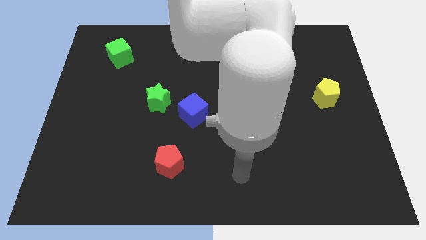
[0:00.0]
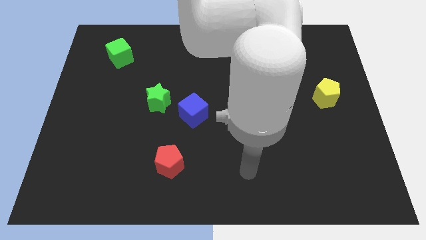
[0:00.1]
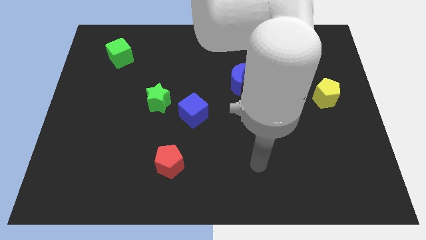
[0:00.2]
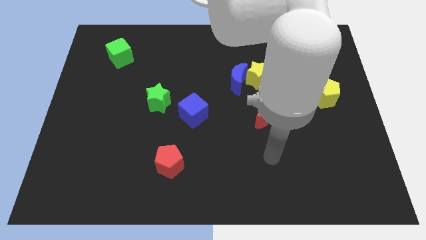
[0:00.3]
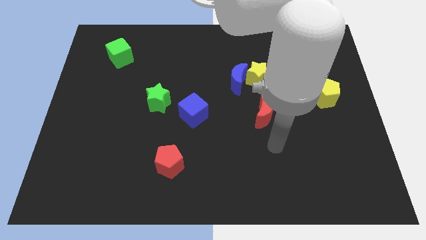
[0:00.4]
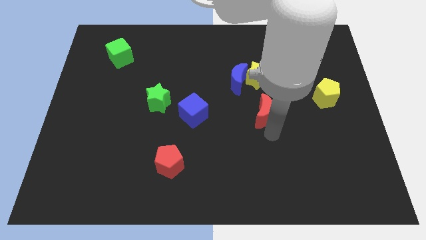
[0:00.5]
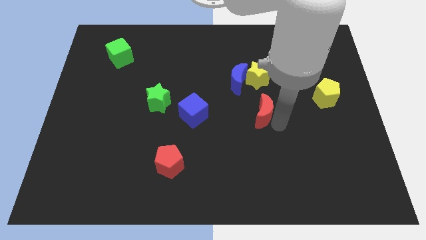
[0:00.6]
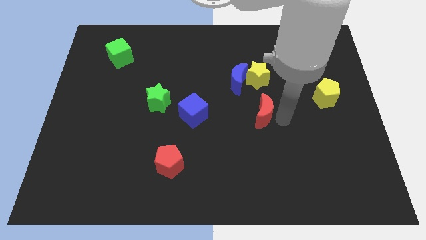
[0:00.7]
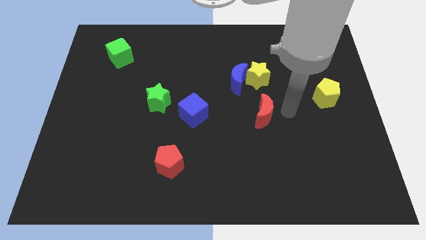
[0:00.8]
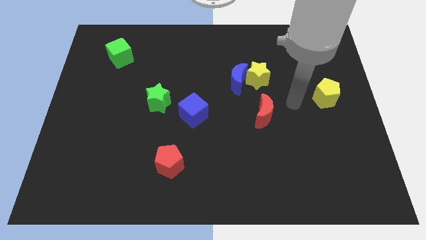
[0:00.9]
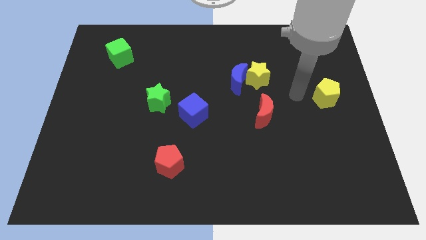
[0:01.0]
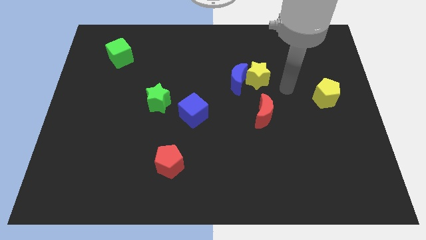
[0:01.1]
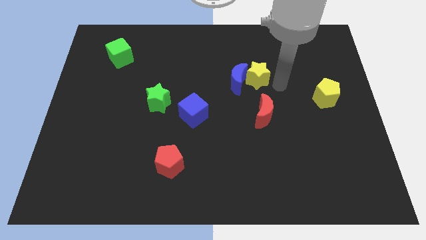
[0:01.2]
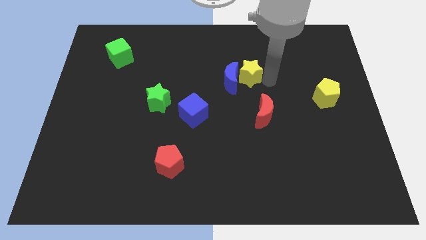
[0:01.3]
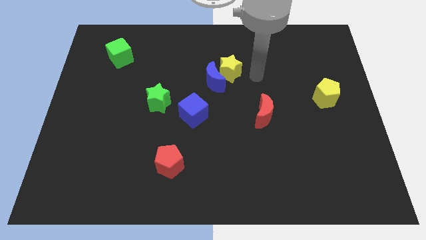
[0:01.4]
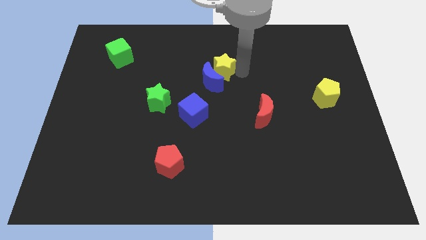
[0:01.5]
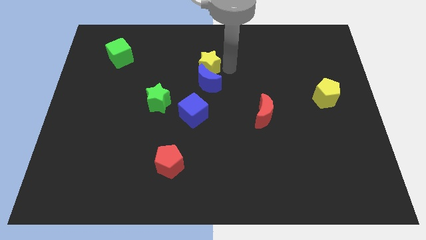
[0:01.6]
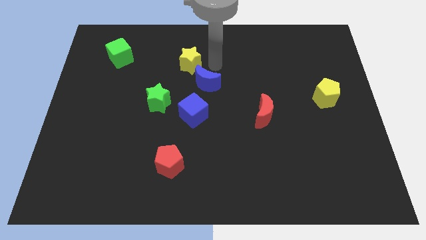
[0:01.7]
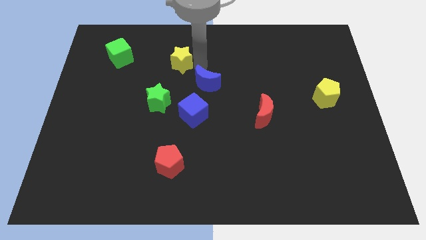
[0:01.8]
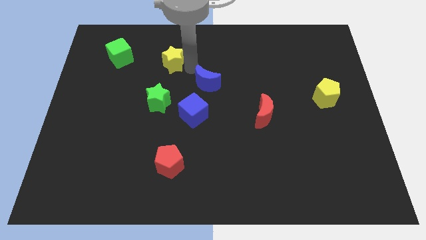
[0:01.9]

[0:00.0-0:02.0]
separate the blue moon from the yellow star

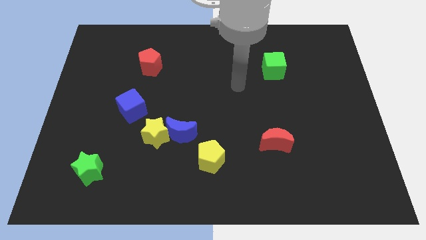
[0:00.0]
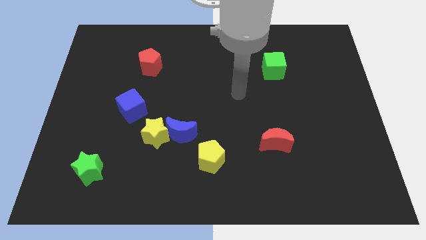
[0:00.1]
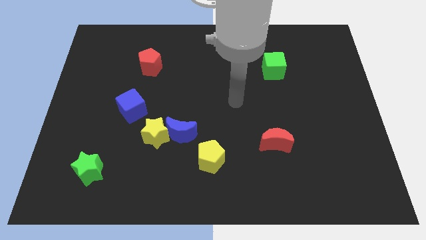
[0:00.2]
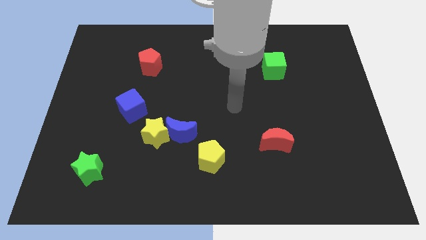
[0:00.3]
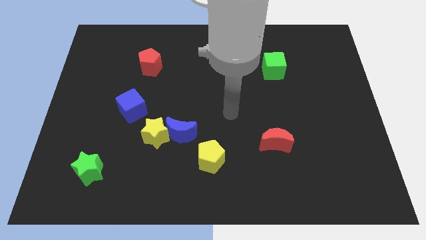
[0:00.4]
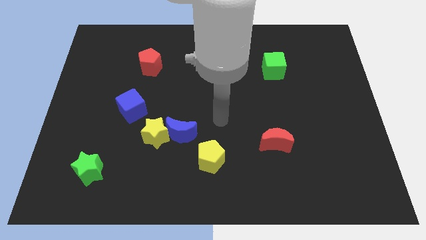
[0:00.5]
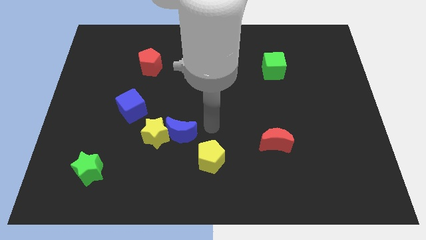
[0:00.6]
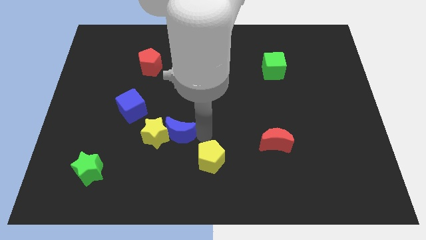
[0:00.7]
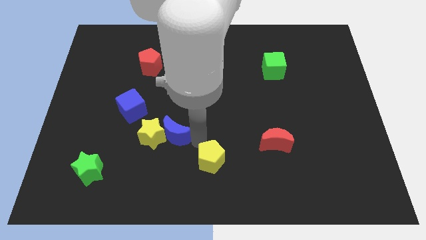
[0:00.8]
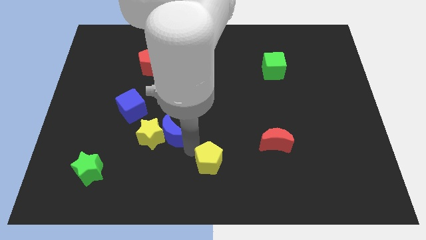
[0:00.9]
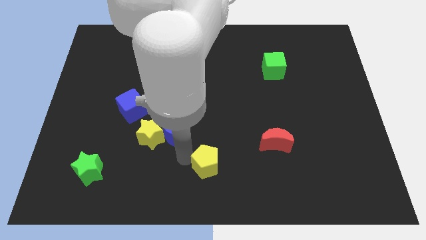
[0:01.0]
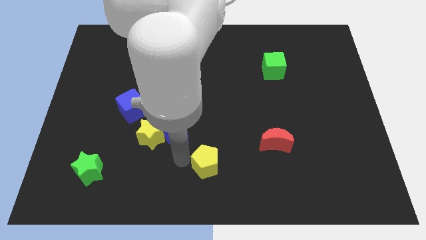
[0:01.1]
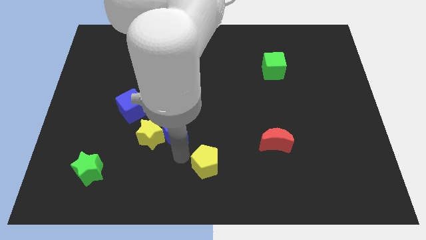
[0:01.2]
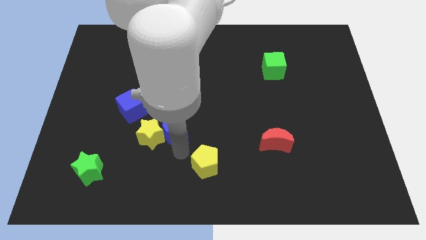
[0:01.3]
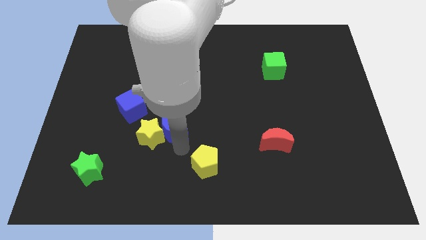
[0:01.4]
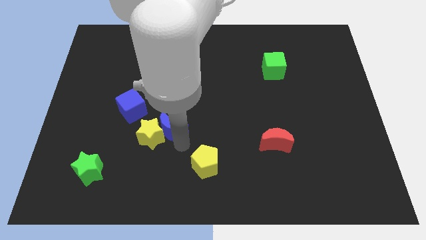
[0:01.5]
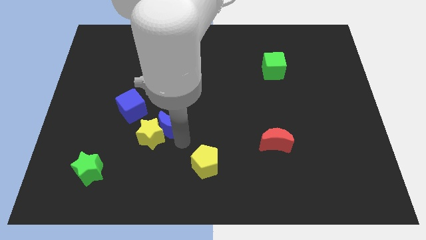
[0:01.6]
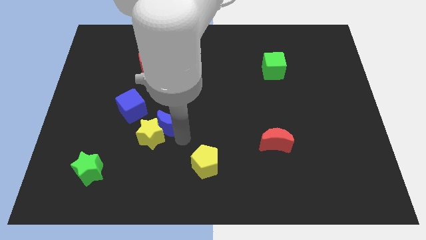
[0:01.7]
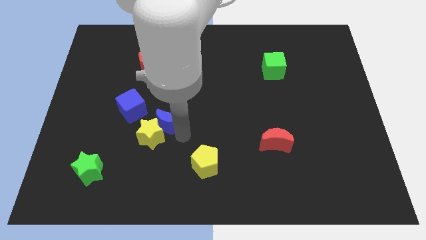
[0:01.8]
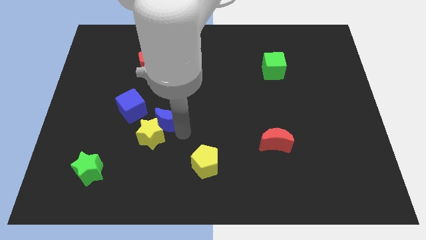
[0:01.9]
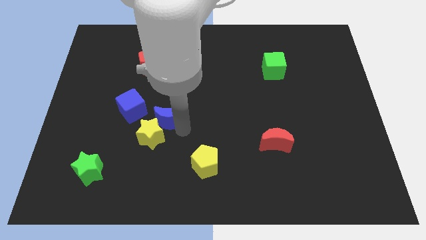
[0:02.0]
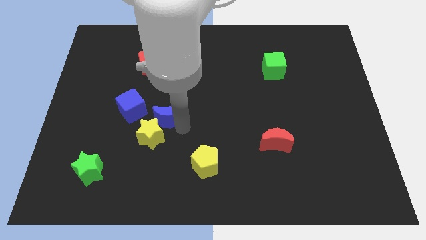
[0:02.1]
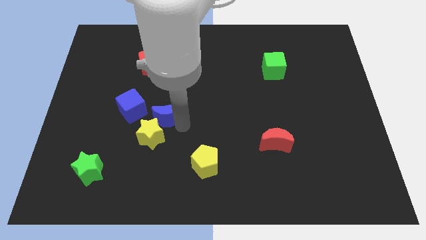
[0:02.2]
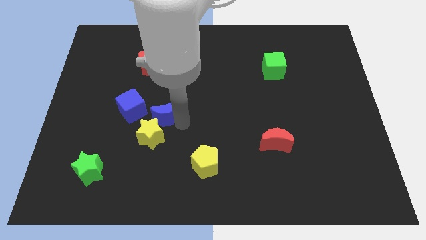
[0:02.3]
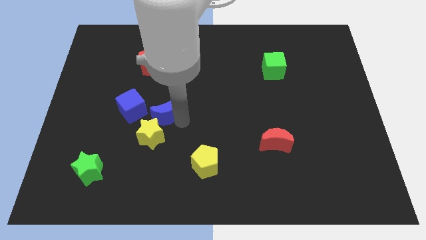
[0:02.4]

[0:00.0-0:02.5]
pull the blue moon apart from the yellow star and yellow pentagon

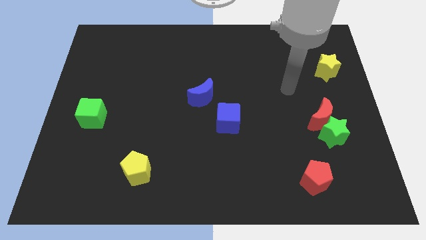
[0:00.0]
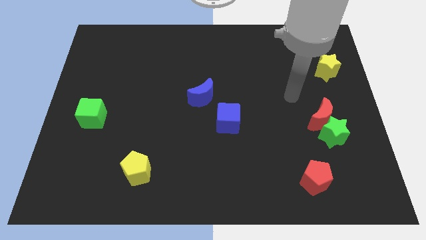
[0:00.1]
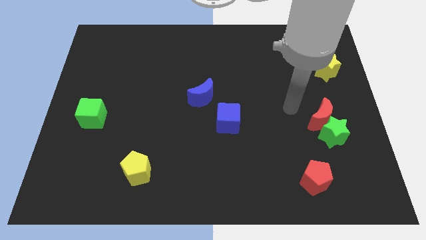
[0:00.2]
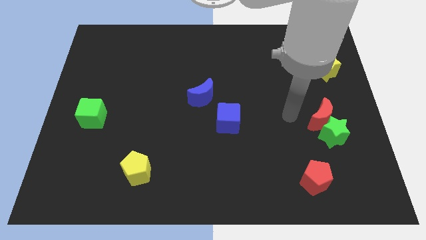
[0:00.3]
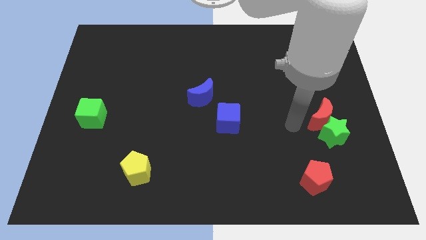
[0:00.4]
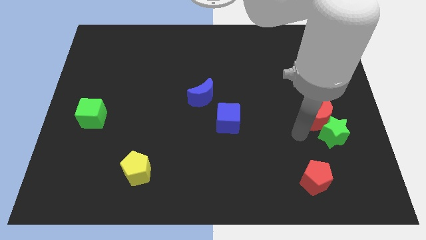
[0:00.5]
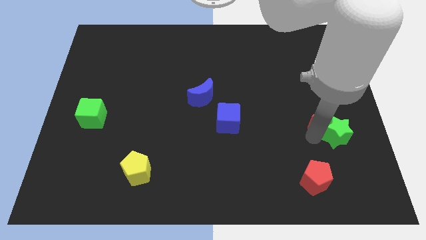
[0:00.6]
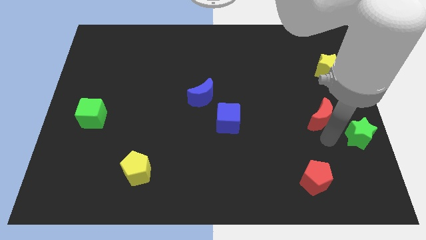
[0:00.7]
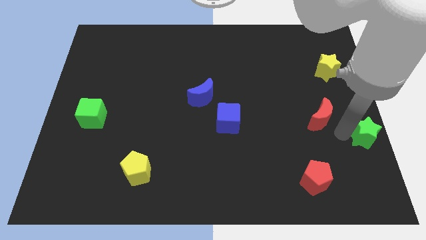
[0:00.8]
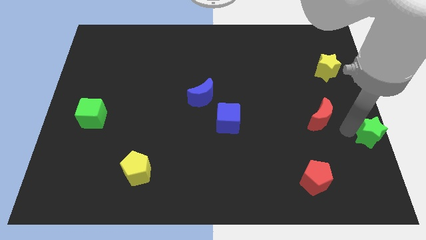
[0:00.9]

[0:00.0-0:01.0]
pull the red moon apart from the green star

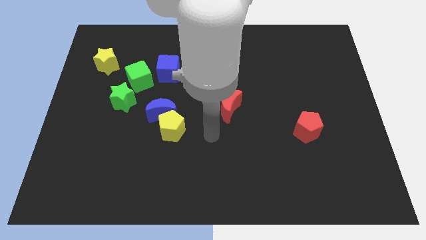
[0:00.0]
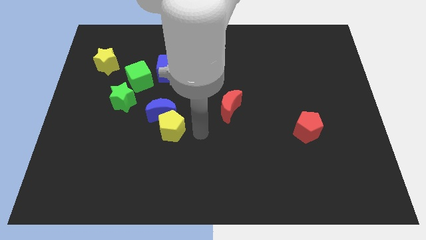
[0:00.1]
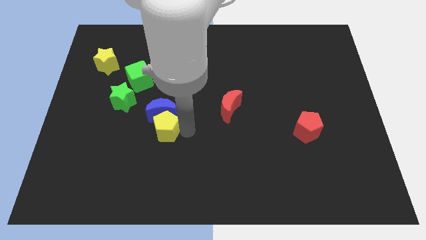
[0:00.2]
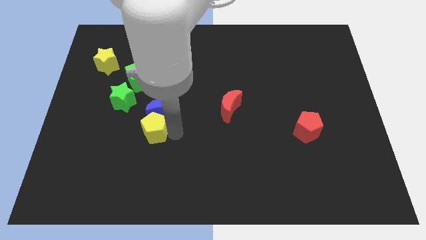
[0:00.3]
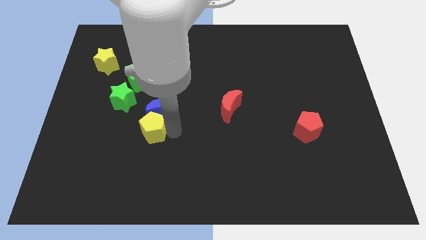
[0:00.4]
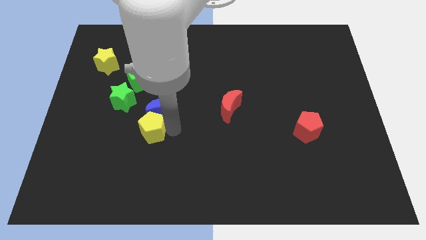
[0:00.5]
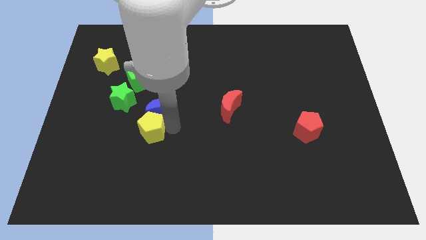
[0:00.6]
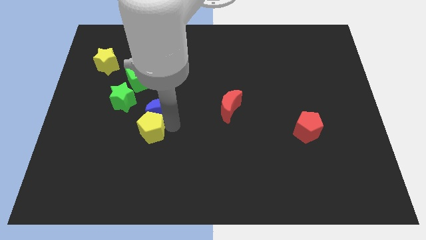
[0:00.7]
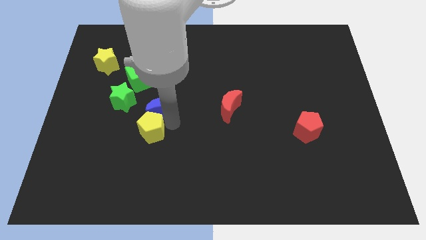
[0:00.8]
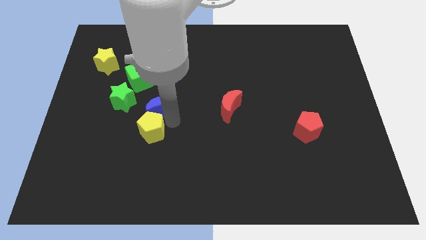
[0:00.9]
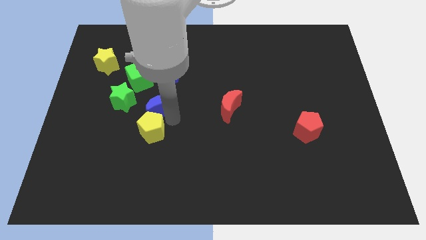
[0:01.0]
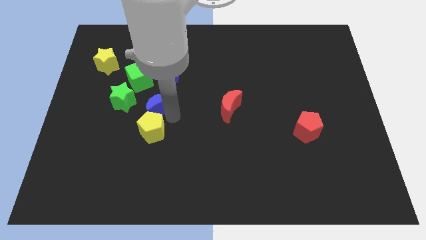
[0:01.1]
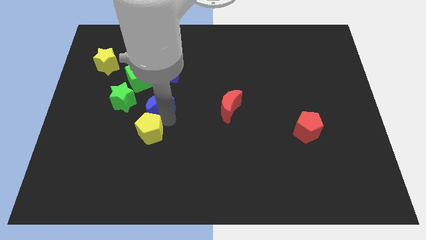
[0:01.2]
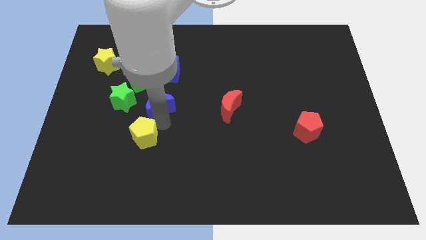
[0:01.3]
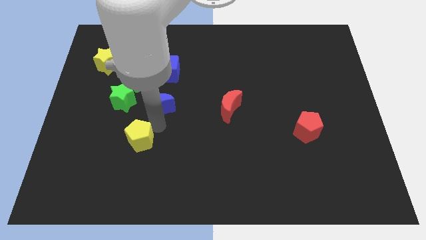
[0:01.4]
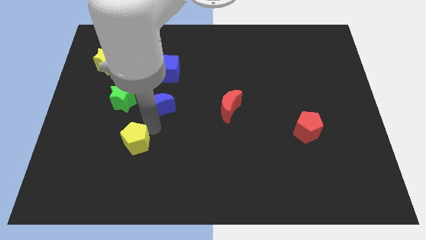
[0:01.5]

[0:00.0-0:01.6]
separate the blue moon from the yellow pentagon

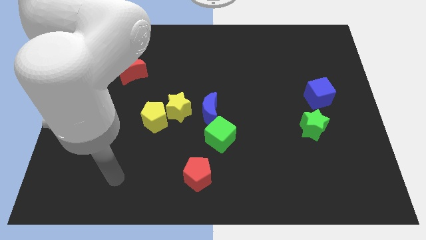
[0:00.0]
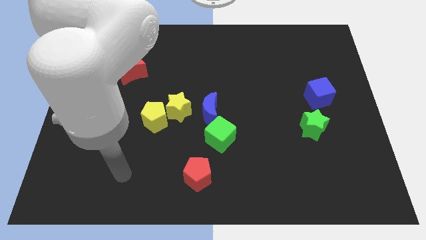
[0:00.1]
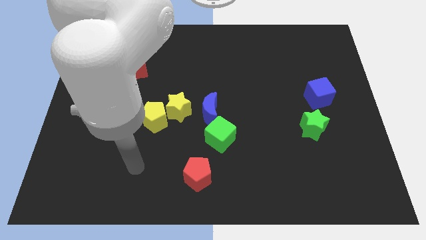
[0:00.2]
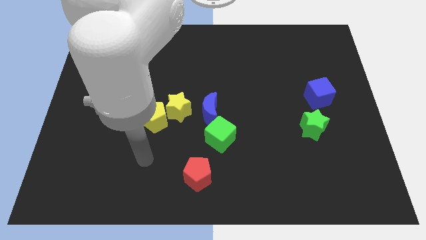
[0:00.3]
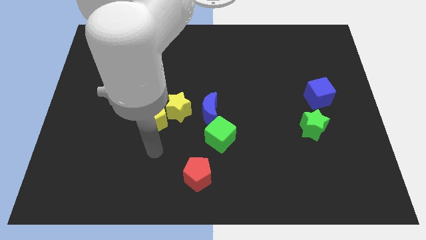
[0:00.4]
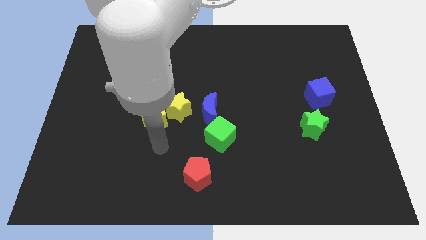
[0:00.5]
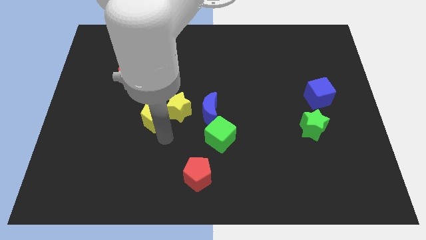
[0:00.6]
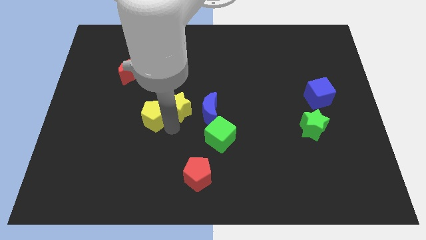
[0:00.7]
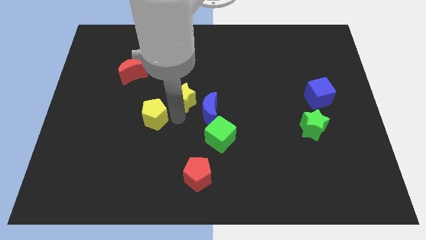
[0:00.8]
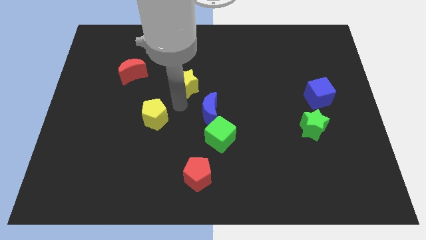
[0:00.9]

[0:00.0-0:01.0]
pull the yellow pentagon apart from the yellow star

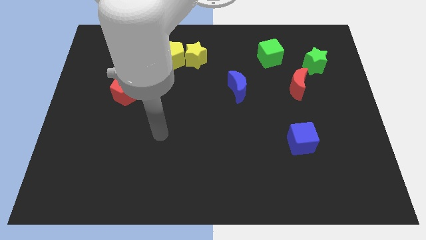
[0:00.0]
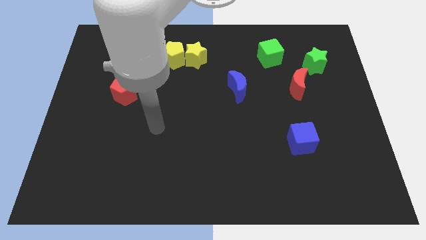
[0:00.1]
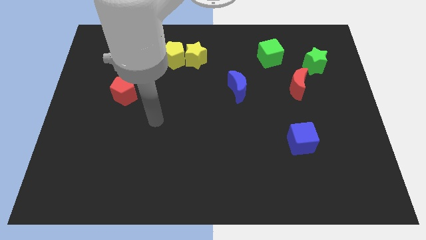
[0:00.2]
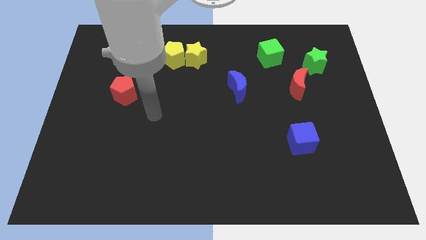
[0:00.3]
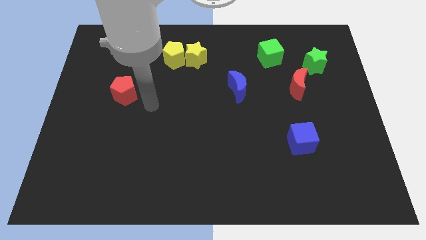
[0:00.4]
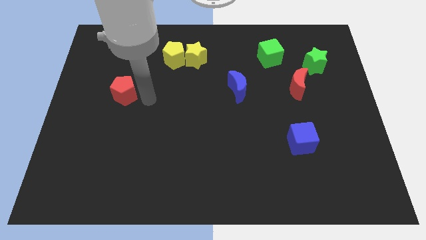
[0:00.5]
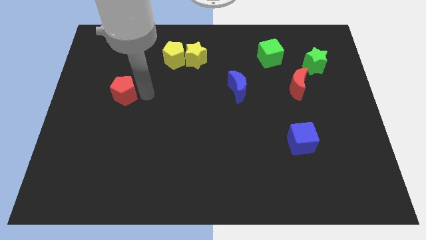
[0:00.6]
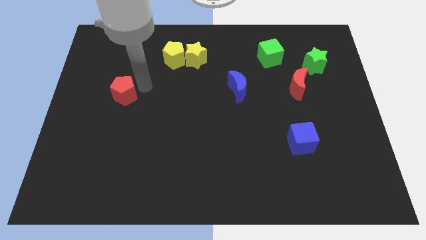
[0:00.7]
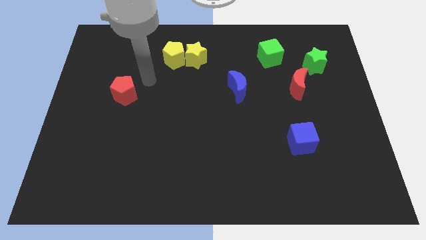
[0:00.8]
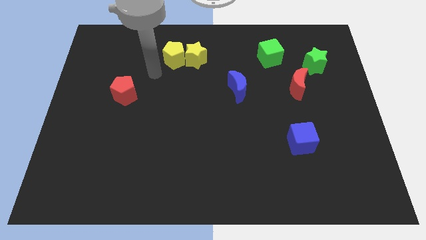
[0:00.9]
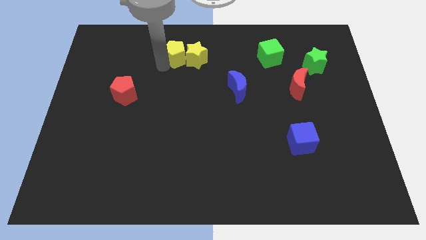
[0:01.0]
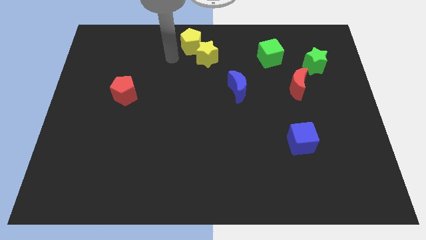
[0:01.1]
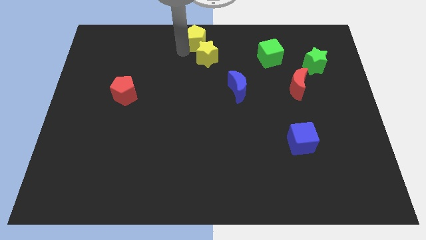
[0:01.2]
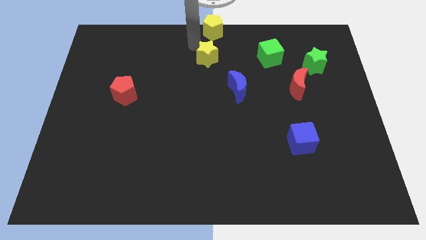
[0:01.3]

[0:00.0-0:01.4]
pull the yellow star apart from the yellow pentagon
